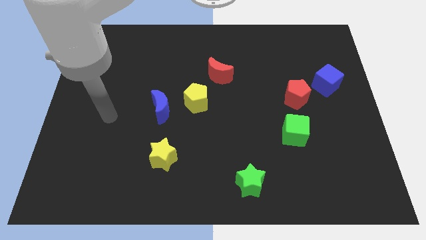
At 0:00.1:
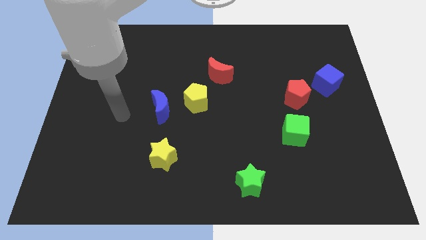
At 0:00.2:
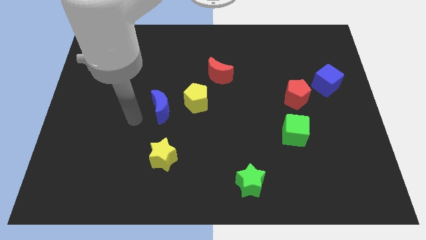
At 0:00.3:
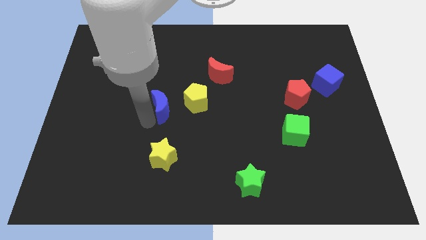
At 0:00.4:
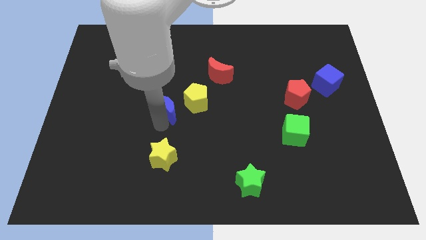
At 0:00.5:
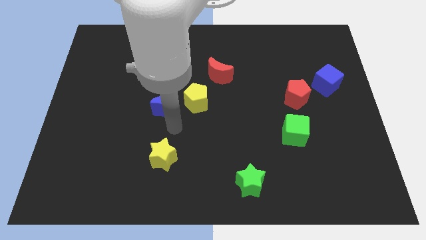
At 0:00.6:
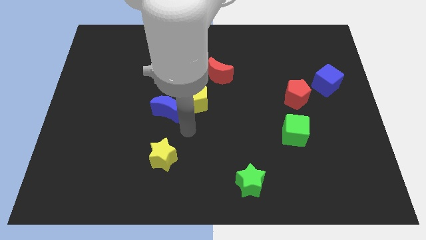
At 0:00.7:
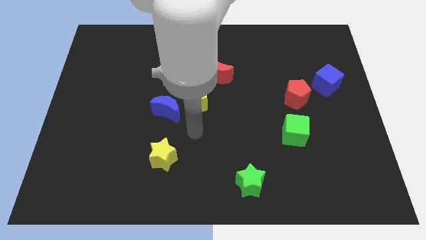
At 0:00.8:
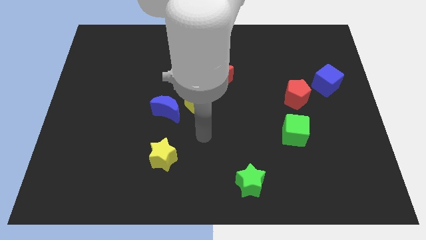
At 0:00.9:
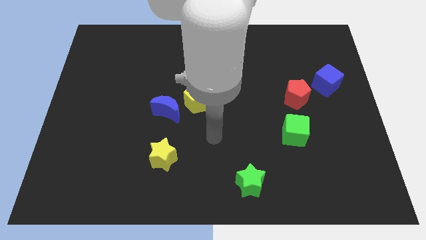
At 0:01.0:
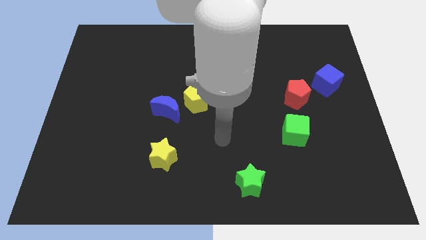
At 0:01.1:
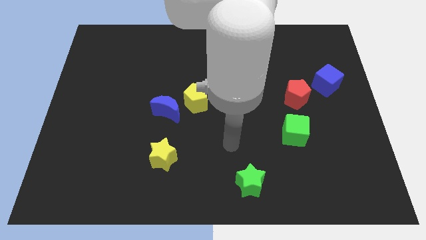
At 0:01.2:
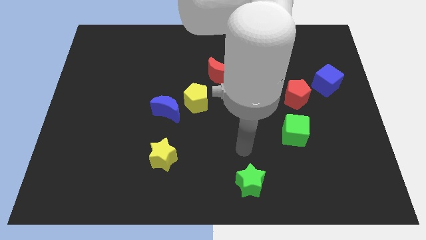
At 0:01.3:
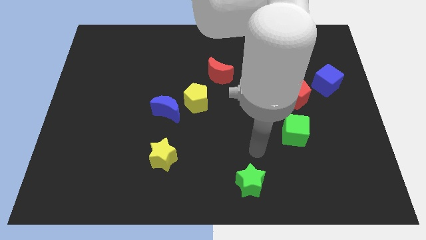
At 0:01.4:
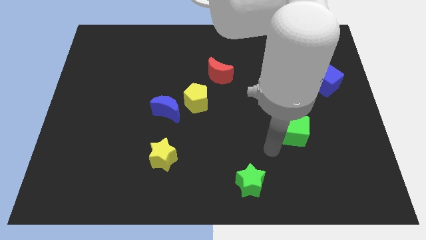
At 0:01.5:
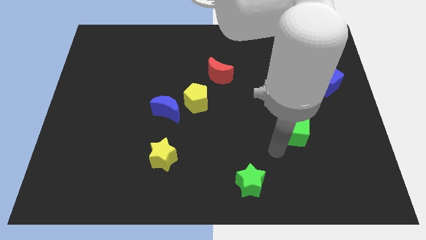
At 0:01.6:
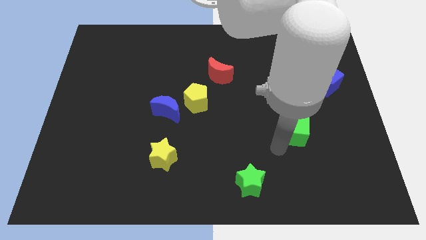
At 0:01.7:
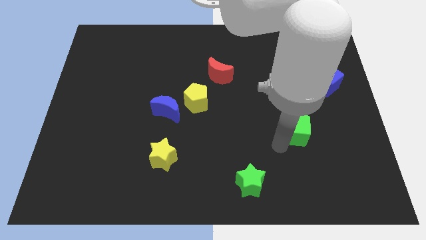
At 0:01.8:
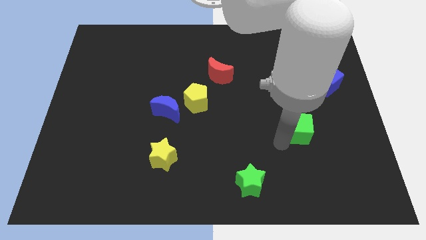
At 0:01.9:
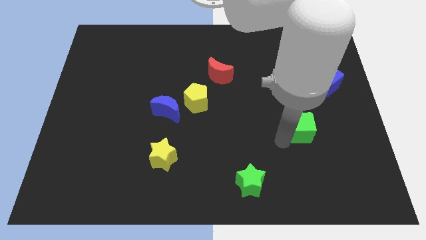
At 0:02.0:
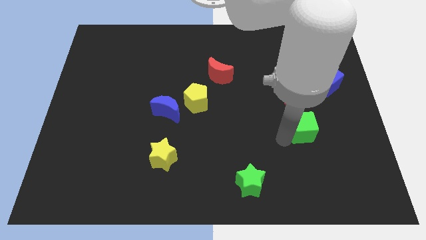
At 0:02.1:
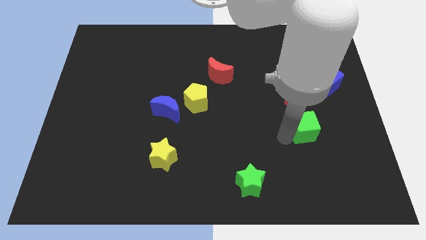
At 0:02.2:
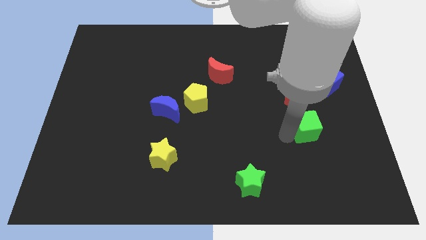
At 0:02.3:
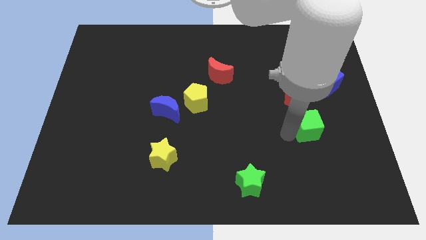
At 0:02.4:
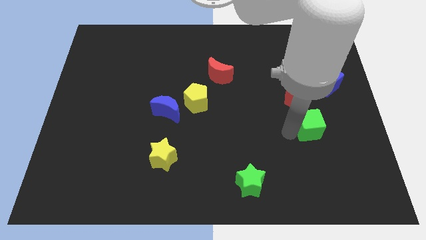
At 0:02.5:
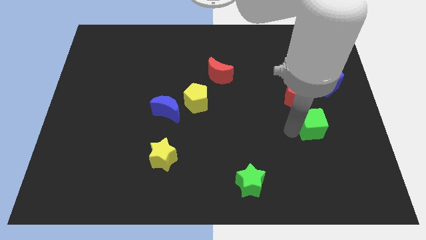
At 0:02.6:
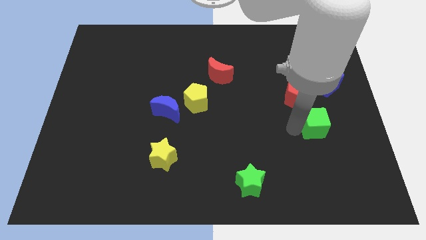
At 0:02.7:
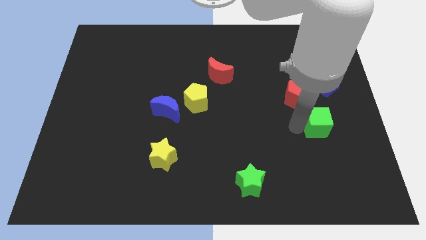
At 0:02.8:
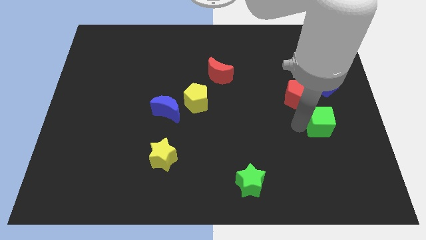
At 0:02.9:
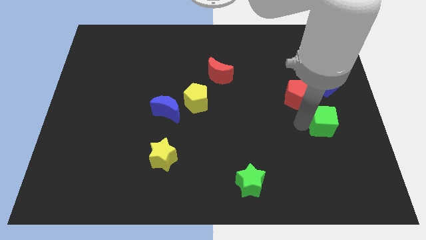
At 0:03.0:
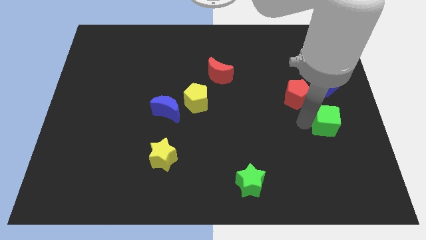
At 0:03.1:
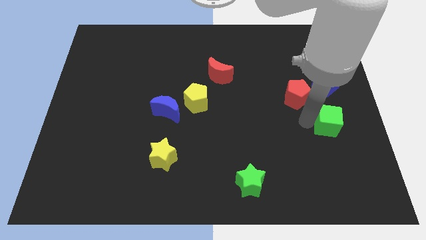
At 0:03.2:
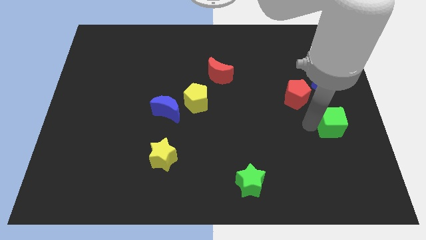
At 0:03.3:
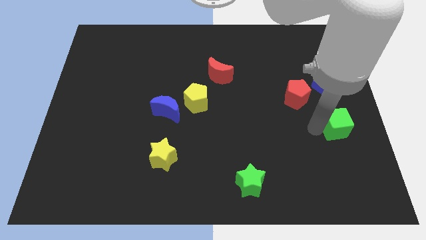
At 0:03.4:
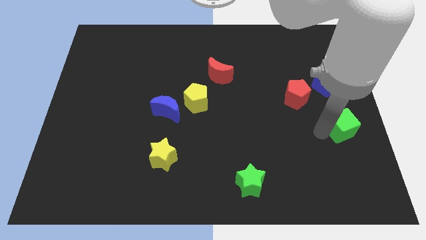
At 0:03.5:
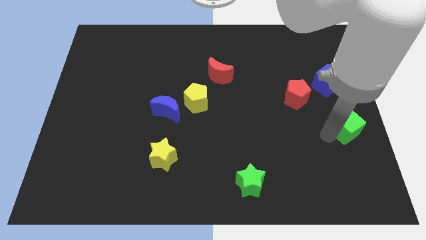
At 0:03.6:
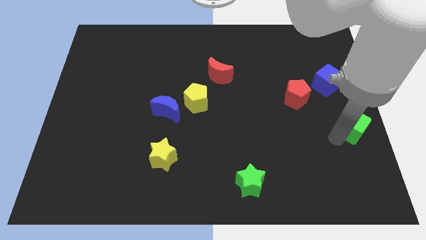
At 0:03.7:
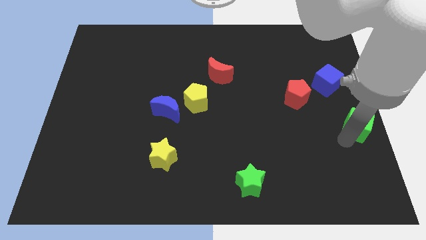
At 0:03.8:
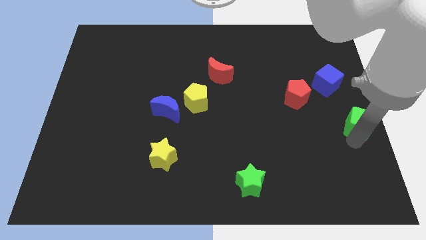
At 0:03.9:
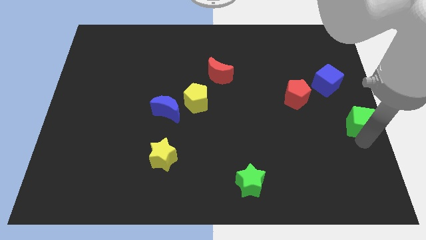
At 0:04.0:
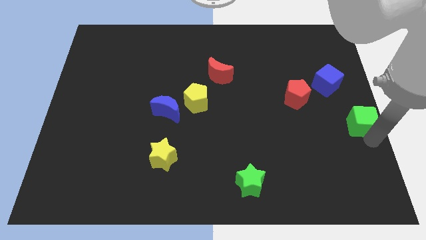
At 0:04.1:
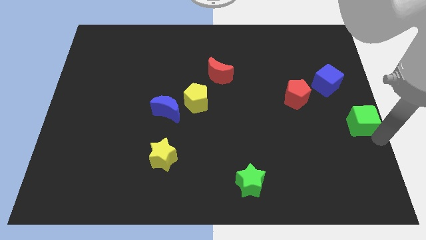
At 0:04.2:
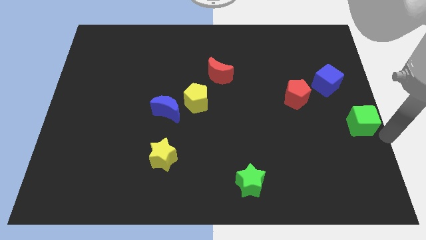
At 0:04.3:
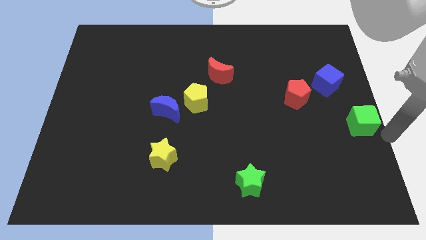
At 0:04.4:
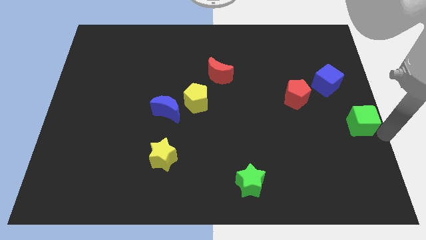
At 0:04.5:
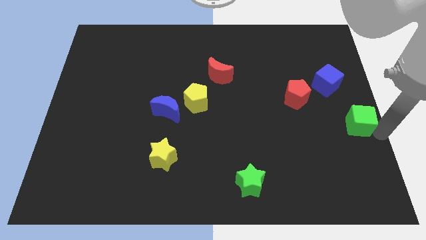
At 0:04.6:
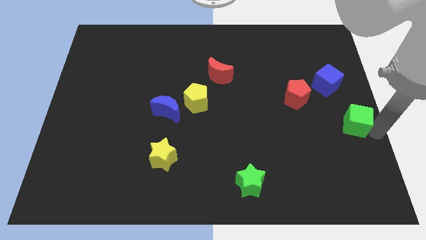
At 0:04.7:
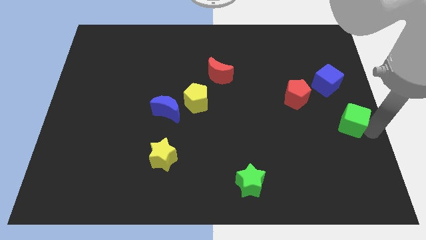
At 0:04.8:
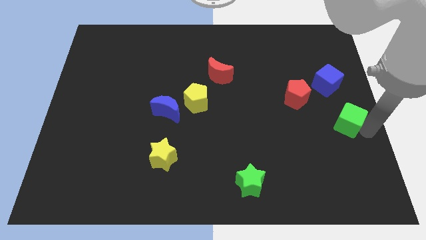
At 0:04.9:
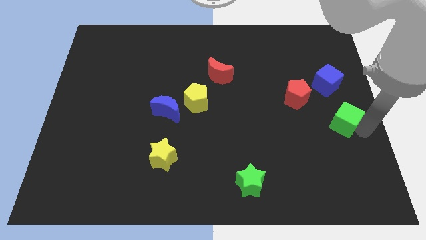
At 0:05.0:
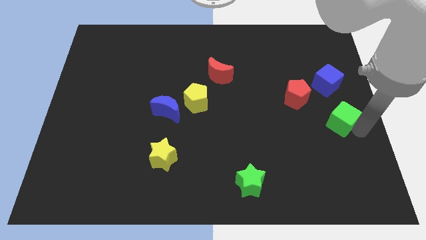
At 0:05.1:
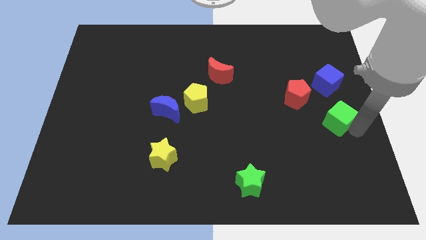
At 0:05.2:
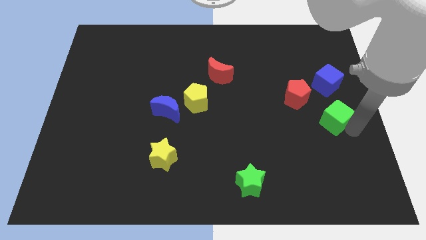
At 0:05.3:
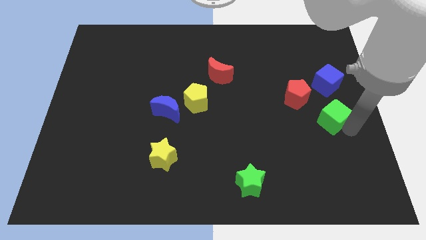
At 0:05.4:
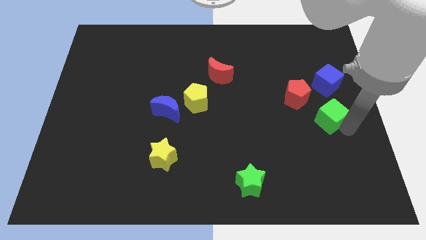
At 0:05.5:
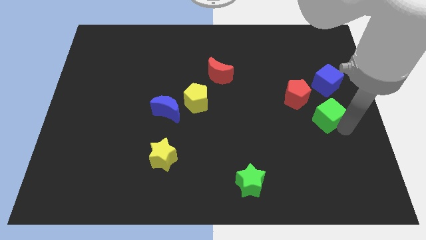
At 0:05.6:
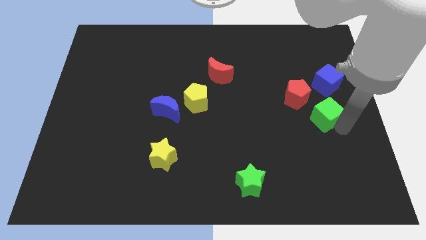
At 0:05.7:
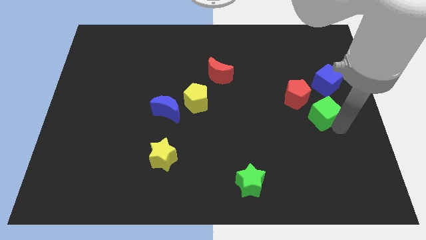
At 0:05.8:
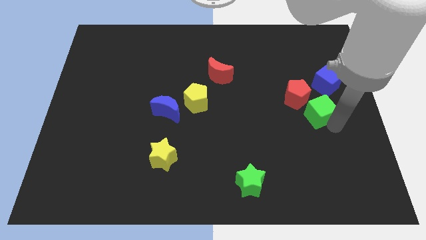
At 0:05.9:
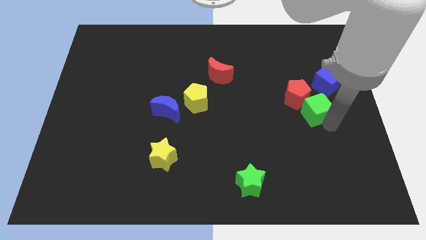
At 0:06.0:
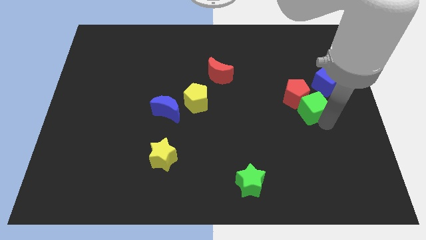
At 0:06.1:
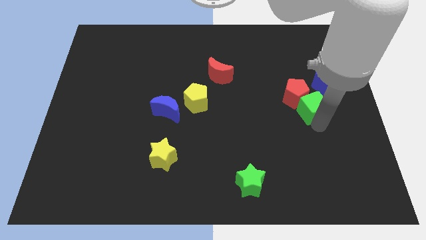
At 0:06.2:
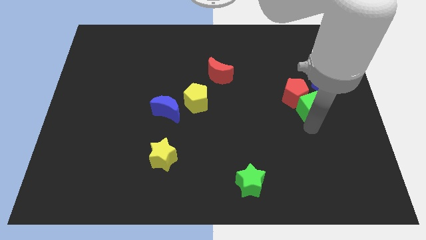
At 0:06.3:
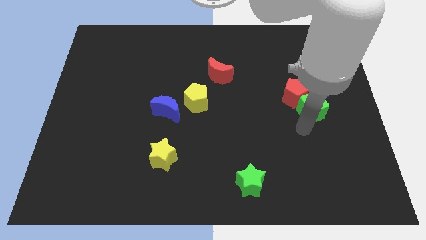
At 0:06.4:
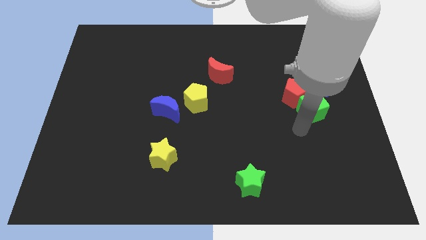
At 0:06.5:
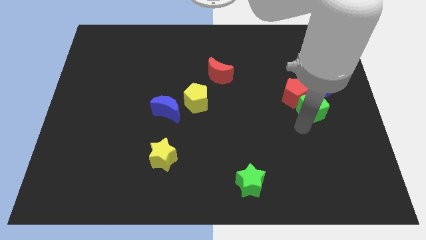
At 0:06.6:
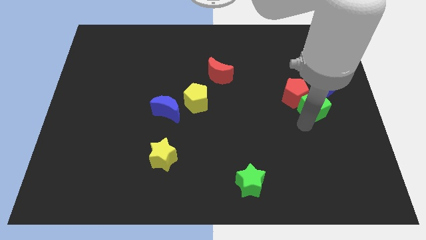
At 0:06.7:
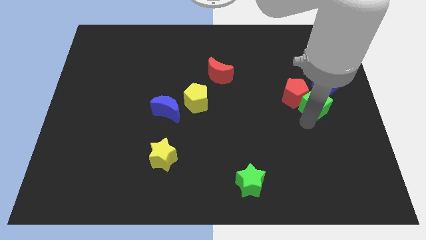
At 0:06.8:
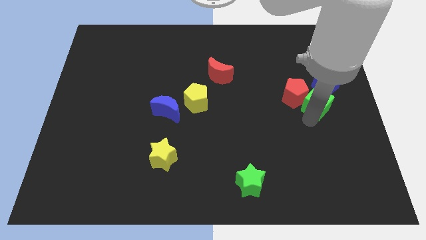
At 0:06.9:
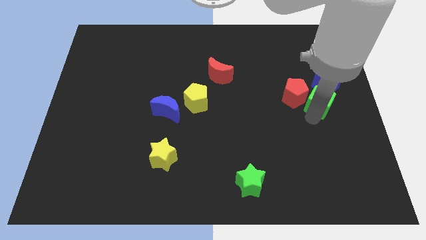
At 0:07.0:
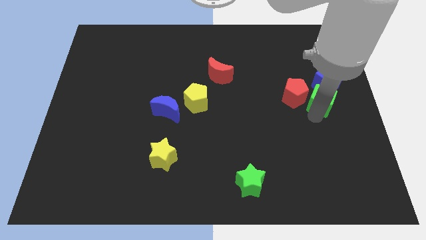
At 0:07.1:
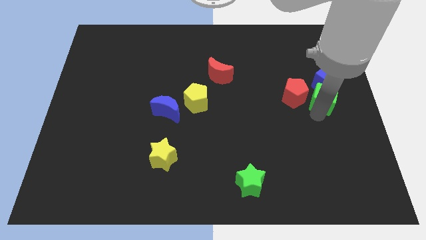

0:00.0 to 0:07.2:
push the green cube close to the blue cube
